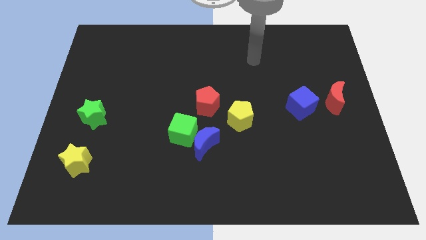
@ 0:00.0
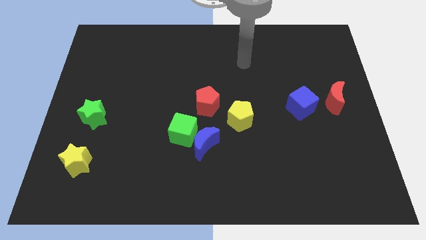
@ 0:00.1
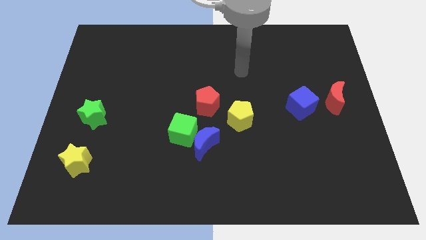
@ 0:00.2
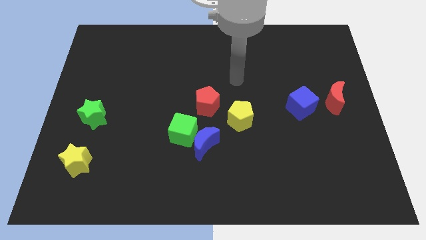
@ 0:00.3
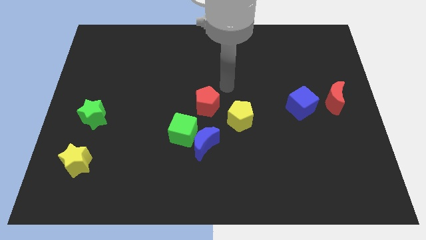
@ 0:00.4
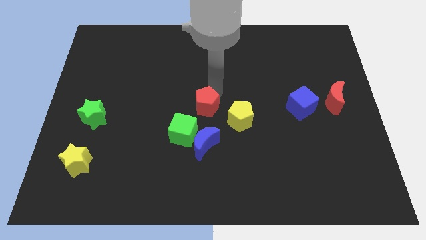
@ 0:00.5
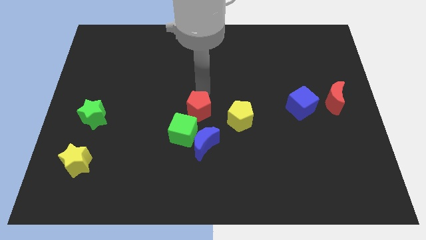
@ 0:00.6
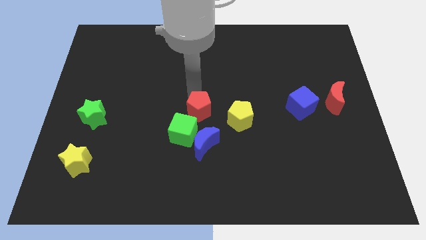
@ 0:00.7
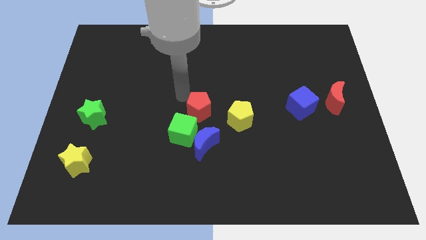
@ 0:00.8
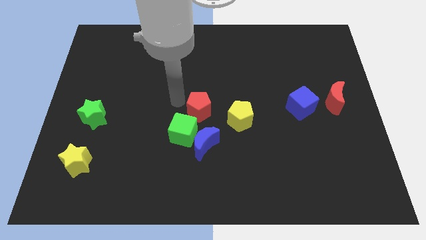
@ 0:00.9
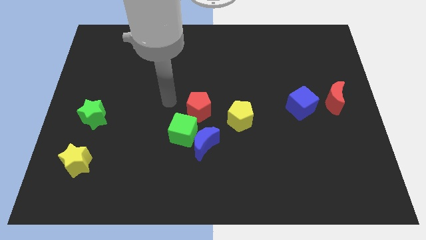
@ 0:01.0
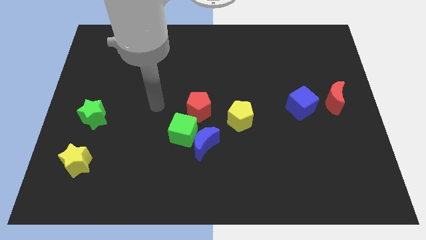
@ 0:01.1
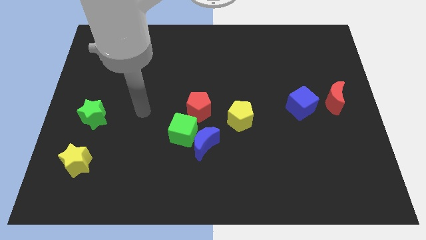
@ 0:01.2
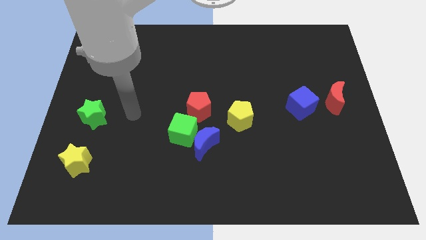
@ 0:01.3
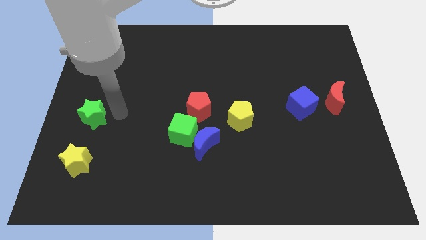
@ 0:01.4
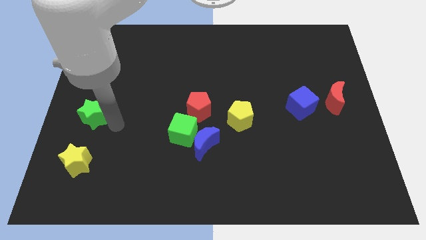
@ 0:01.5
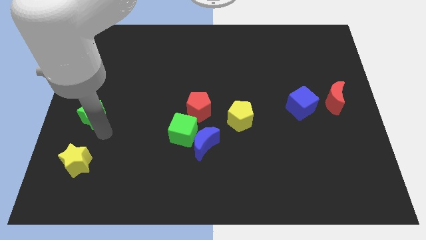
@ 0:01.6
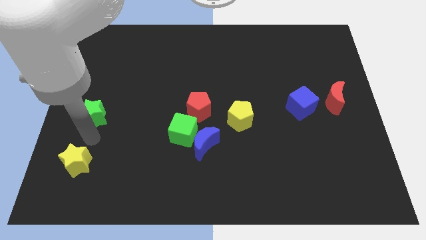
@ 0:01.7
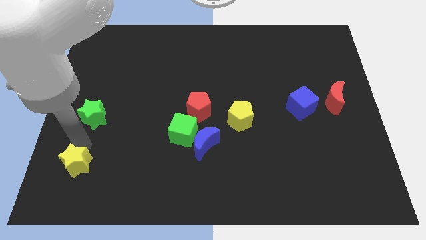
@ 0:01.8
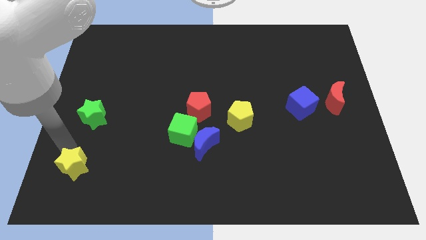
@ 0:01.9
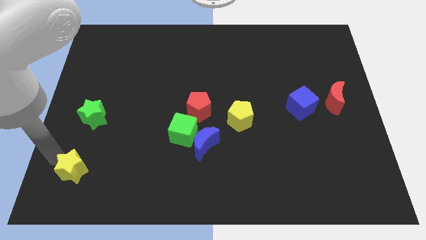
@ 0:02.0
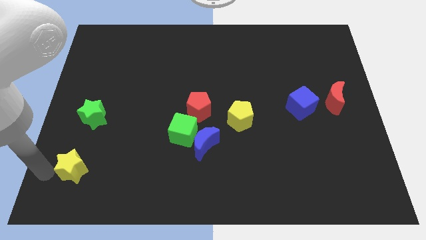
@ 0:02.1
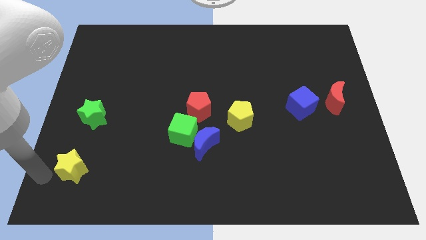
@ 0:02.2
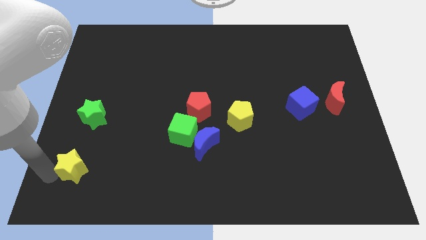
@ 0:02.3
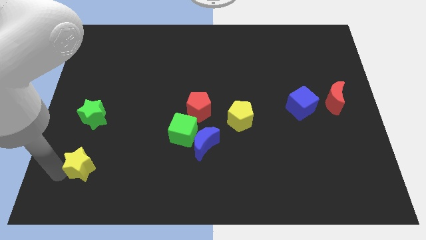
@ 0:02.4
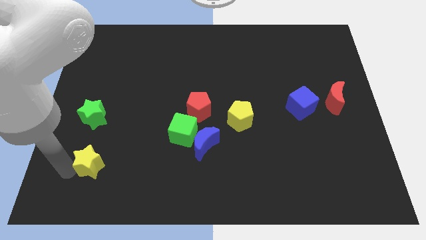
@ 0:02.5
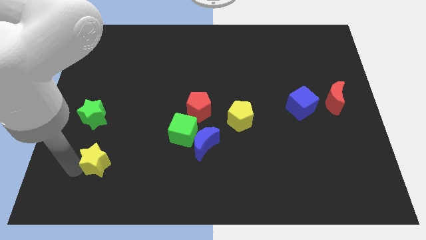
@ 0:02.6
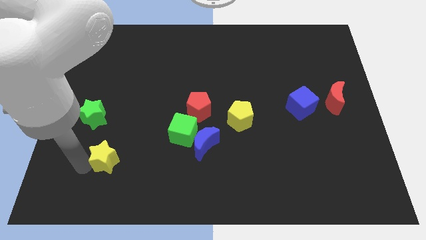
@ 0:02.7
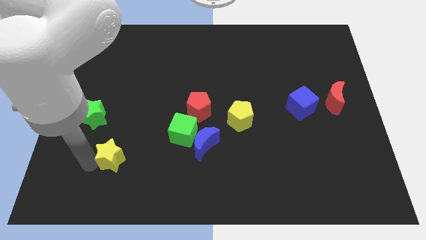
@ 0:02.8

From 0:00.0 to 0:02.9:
move the yellow star a little bit to the right

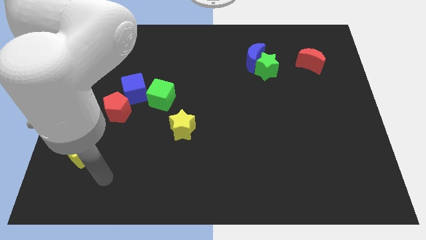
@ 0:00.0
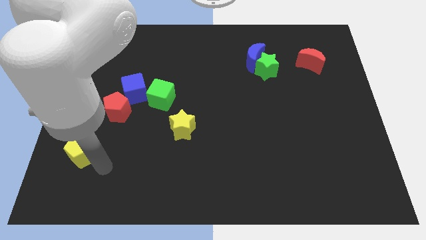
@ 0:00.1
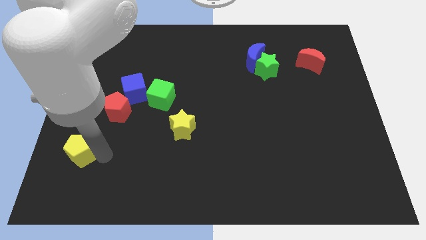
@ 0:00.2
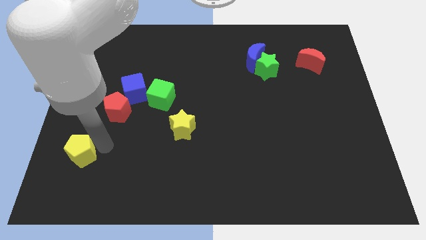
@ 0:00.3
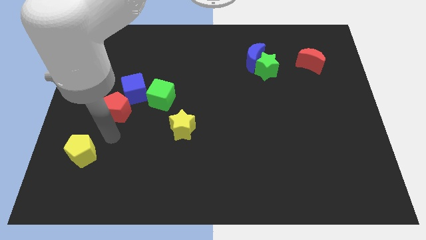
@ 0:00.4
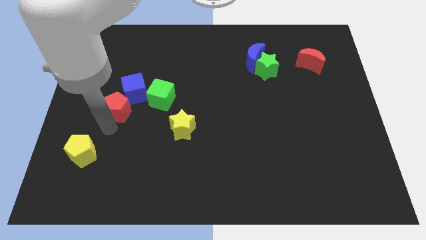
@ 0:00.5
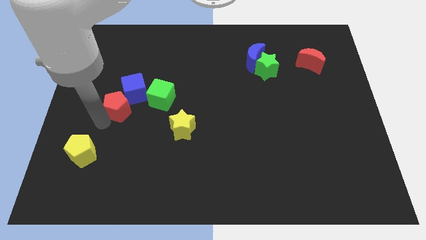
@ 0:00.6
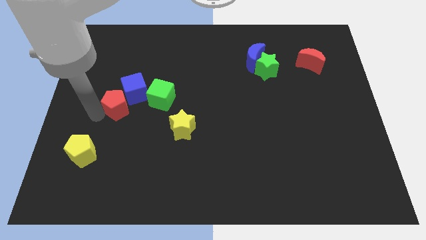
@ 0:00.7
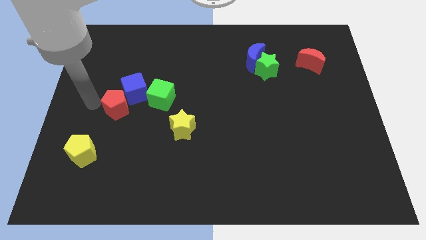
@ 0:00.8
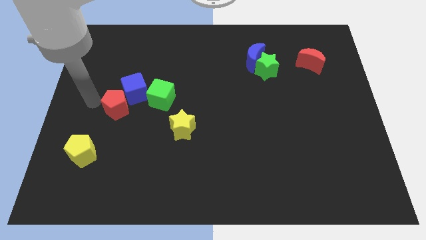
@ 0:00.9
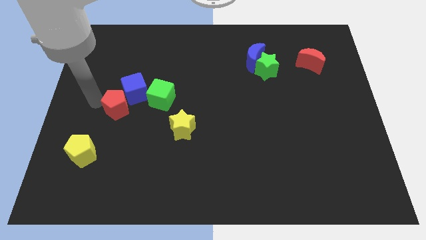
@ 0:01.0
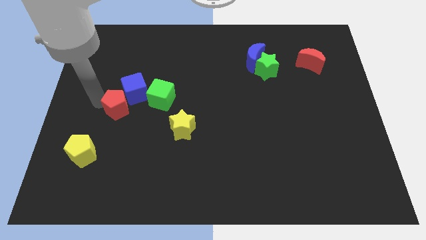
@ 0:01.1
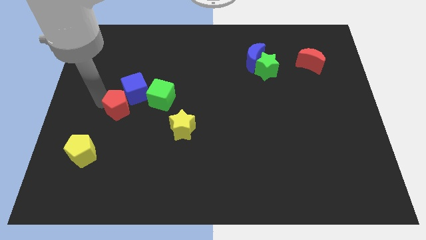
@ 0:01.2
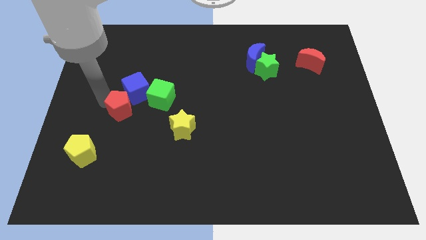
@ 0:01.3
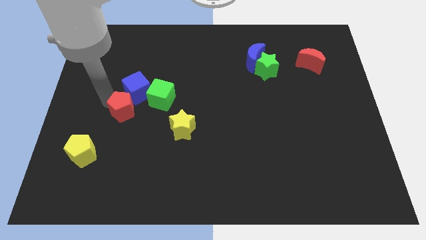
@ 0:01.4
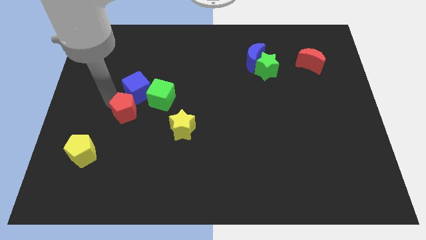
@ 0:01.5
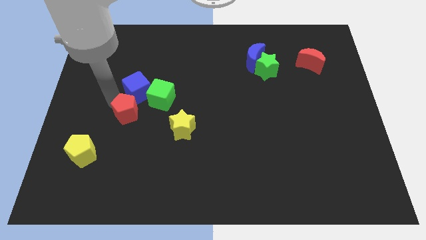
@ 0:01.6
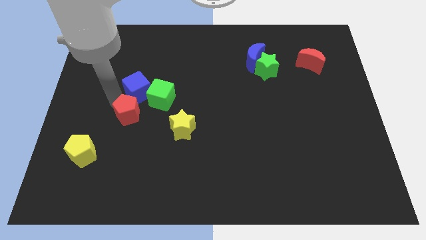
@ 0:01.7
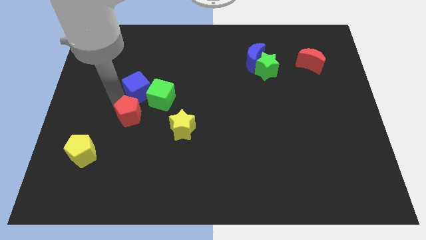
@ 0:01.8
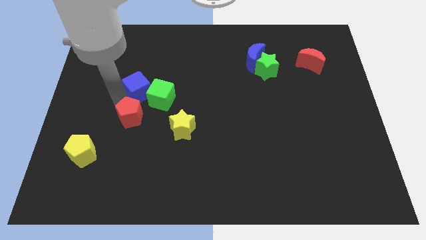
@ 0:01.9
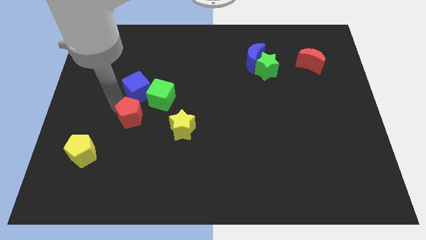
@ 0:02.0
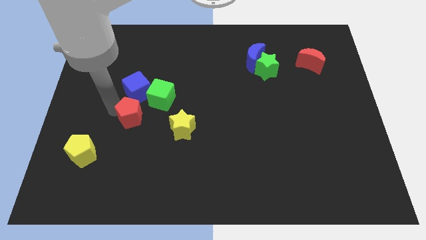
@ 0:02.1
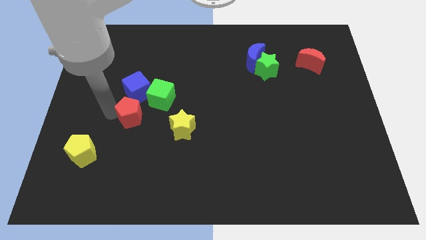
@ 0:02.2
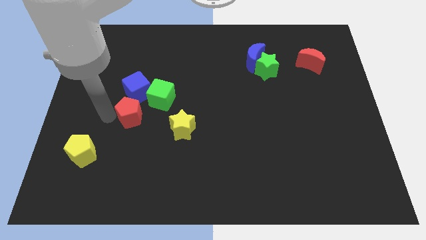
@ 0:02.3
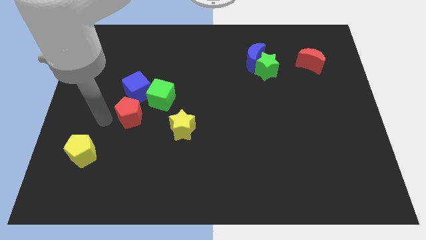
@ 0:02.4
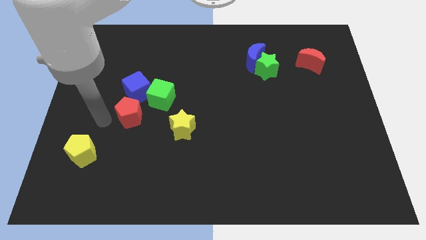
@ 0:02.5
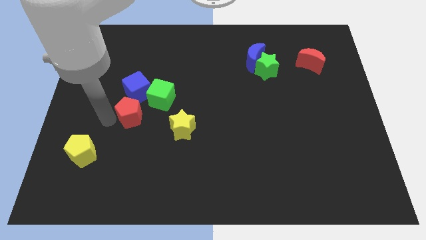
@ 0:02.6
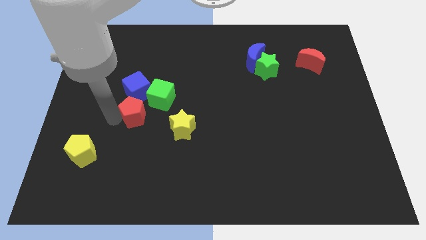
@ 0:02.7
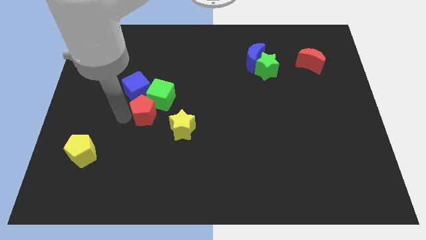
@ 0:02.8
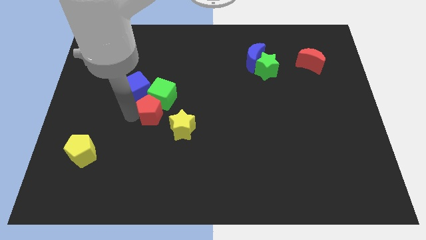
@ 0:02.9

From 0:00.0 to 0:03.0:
push the red pentagon to the right somewhat

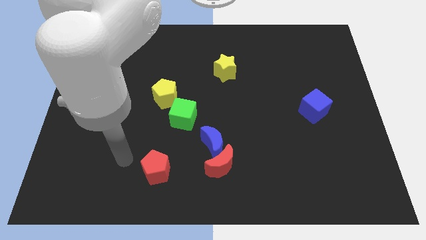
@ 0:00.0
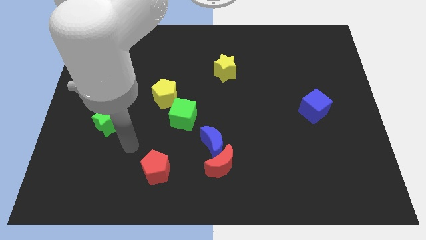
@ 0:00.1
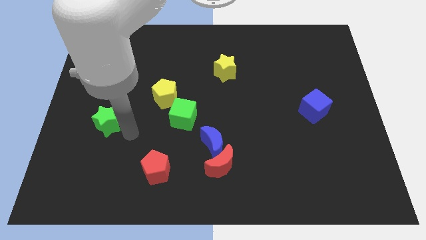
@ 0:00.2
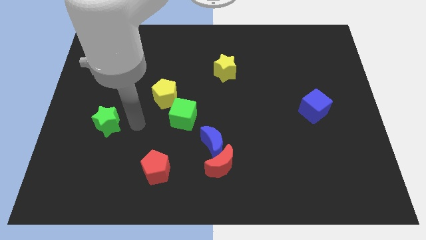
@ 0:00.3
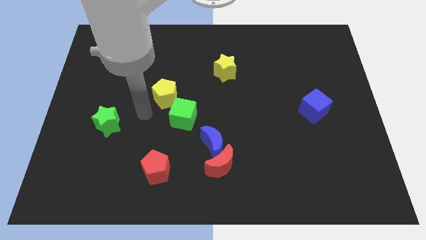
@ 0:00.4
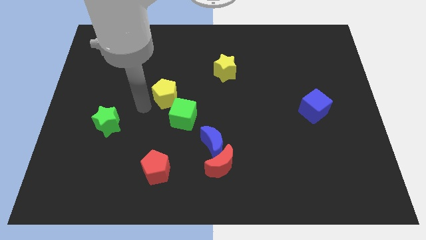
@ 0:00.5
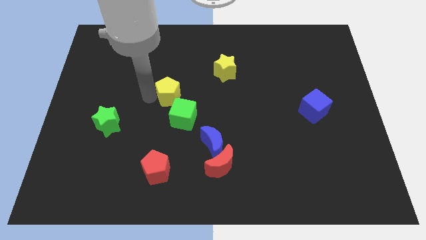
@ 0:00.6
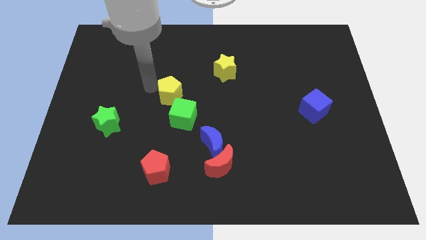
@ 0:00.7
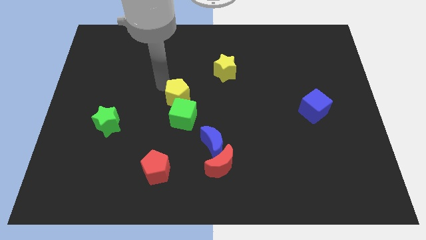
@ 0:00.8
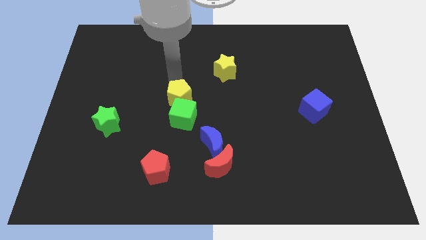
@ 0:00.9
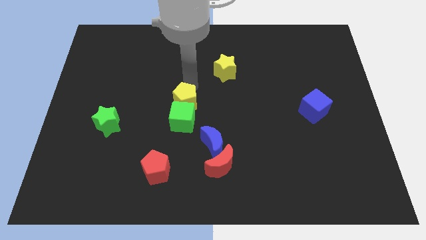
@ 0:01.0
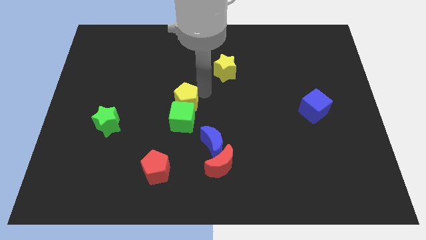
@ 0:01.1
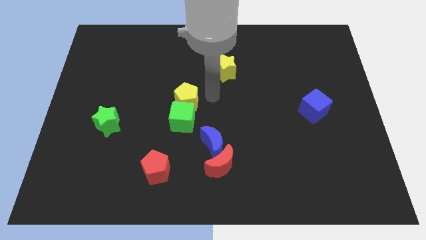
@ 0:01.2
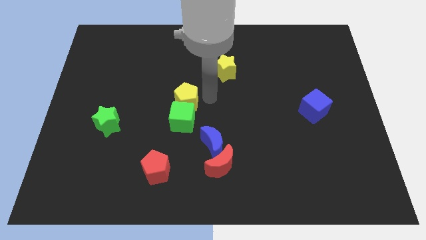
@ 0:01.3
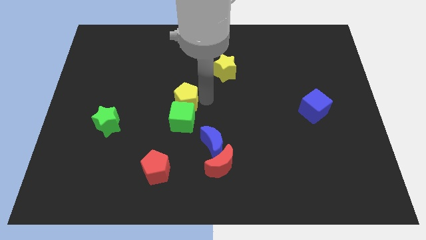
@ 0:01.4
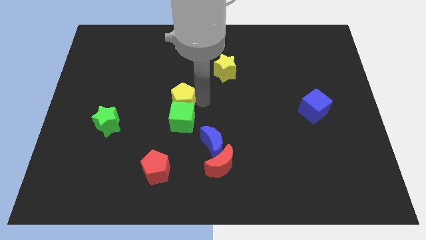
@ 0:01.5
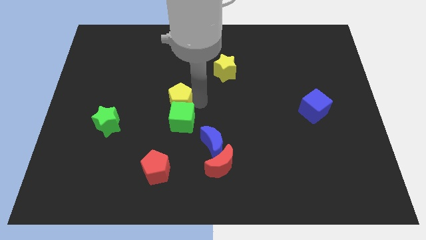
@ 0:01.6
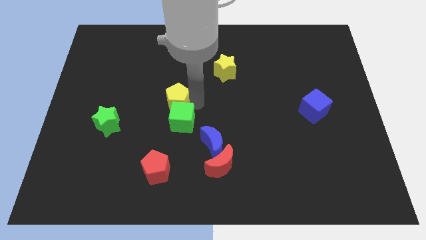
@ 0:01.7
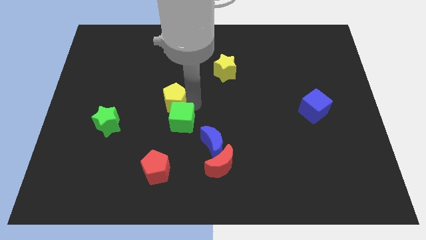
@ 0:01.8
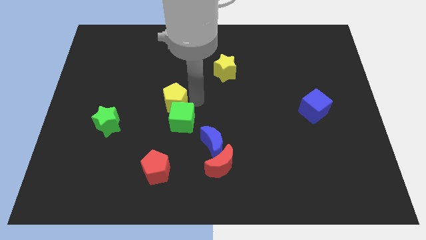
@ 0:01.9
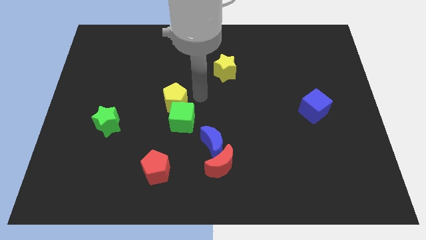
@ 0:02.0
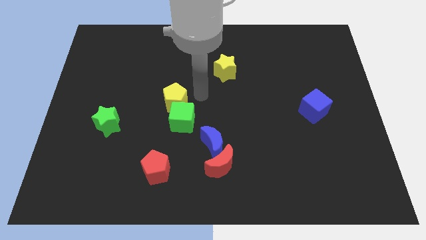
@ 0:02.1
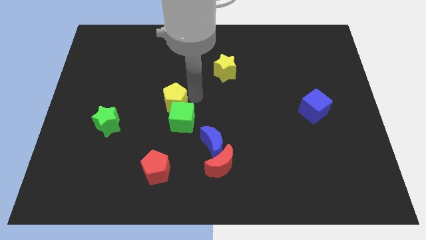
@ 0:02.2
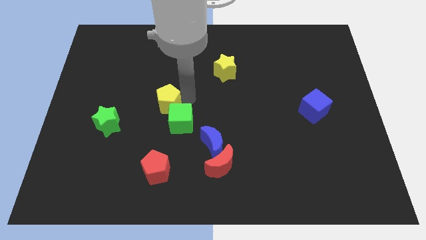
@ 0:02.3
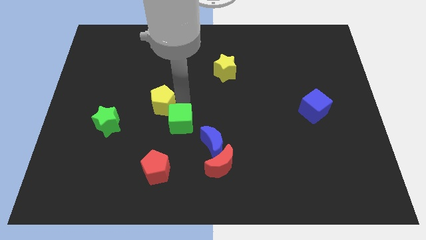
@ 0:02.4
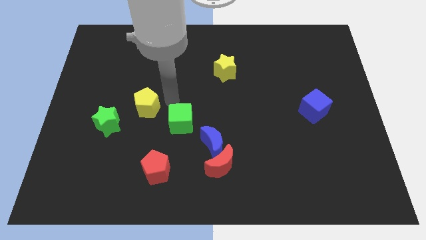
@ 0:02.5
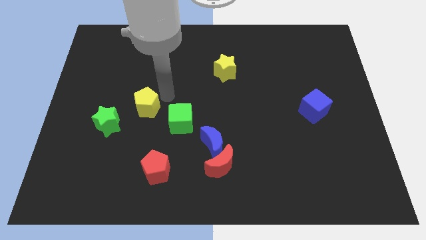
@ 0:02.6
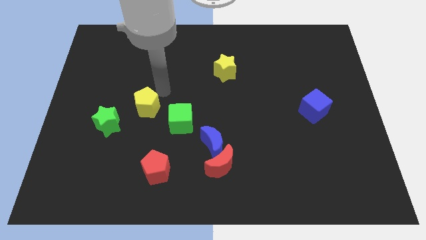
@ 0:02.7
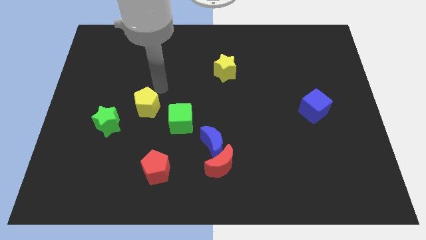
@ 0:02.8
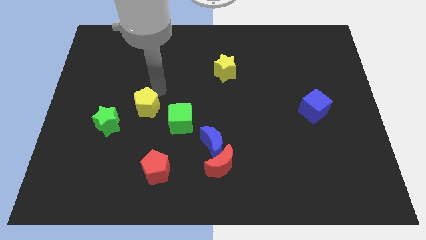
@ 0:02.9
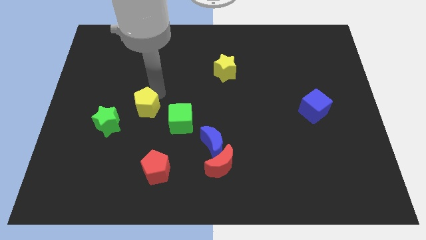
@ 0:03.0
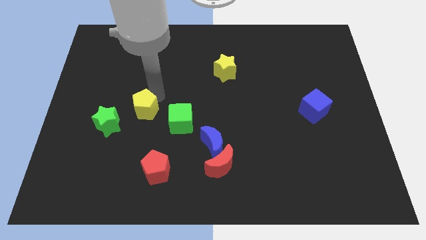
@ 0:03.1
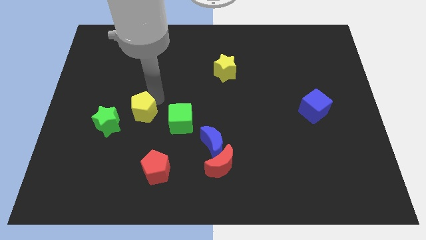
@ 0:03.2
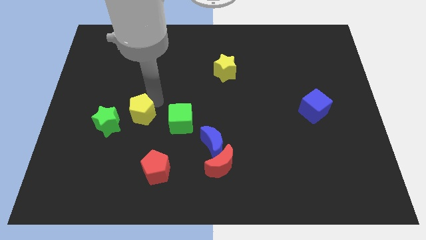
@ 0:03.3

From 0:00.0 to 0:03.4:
move the yellow pentagon diagonally downwards and to the left slightly
